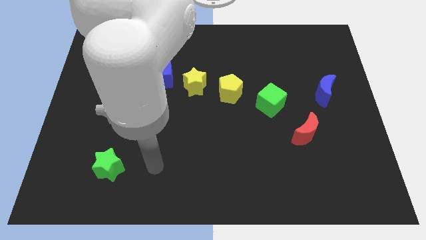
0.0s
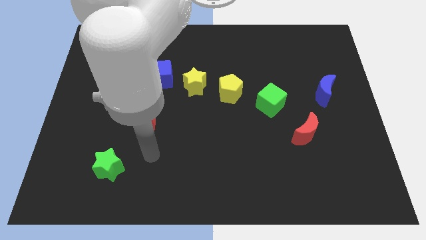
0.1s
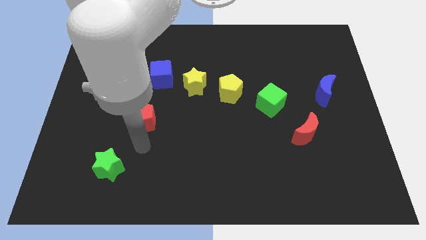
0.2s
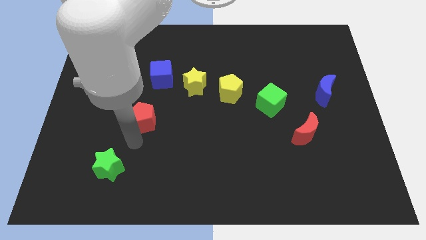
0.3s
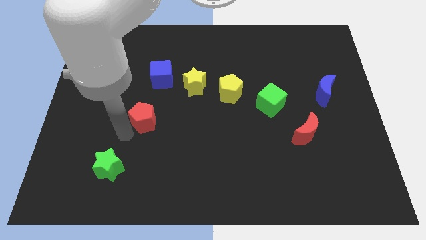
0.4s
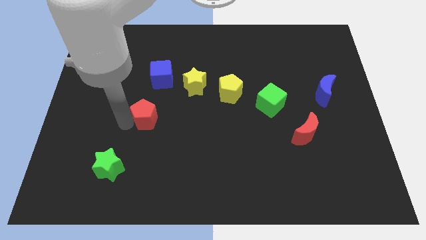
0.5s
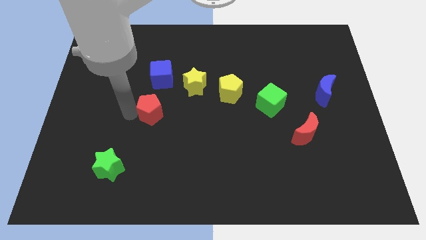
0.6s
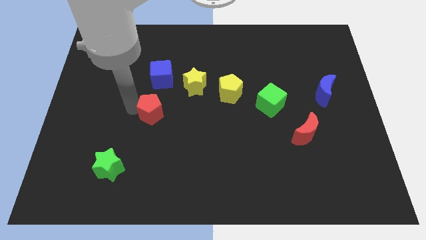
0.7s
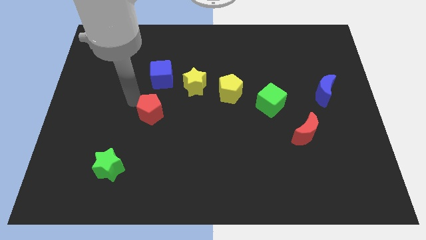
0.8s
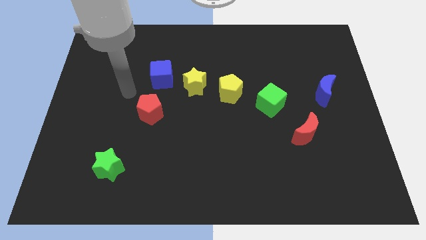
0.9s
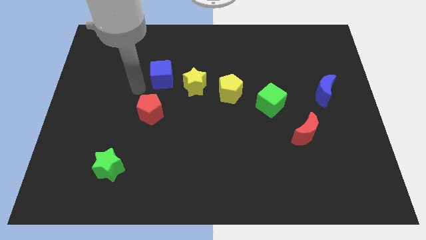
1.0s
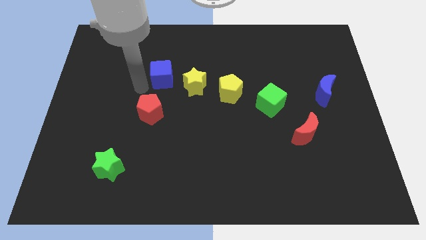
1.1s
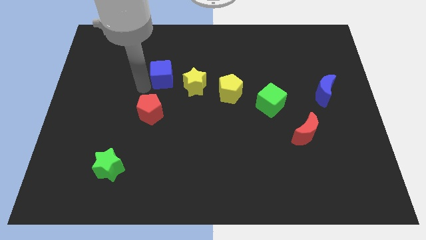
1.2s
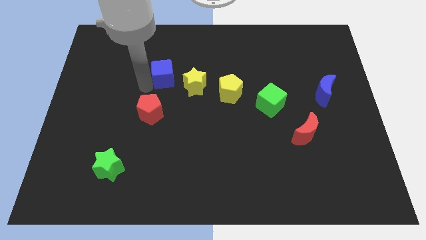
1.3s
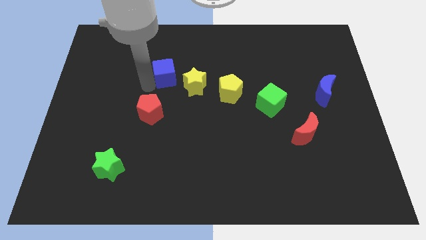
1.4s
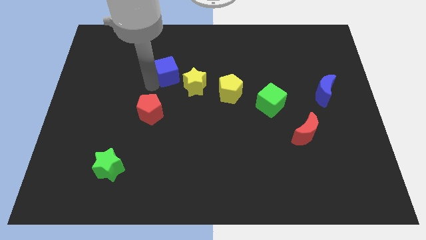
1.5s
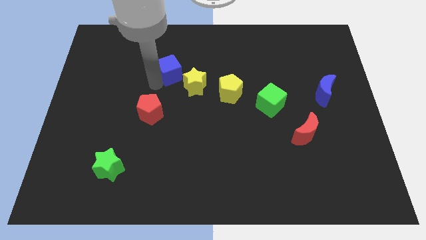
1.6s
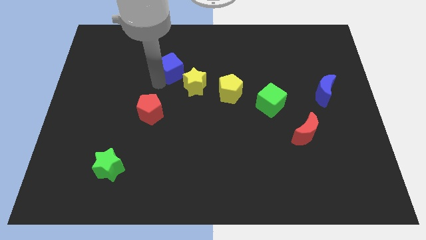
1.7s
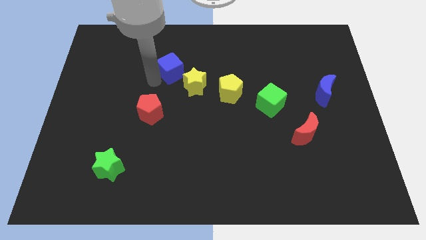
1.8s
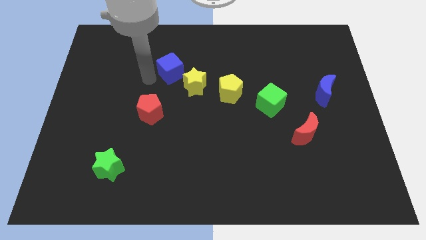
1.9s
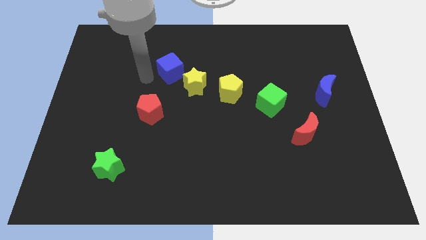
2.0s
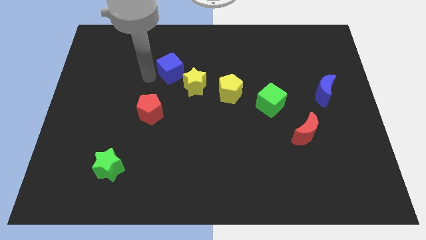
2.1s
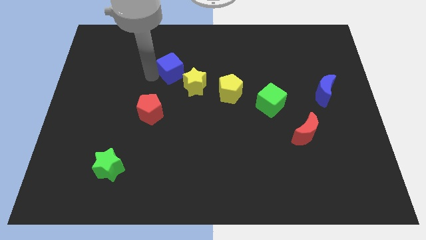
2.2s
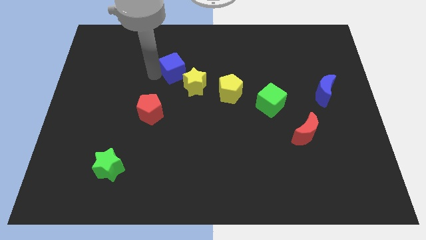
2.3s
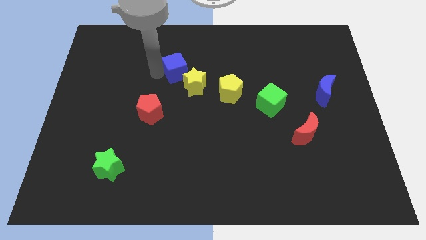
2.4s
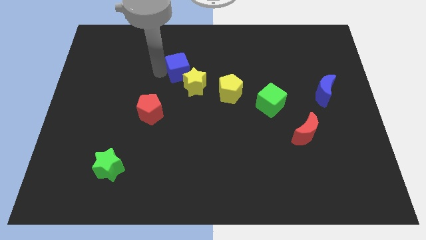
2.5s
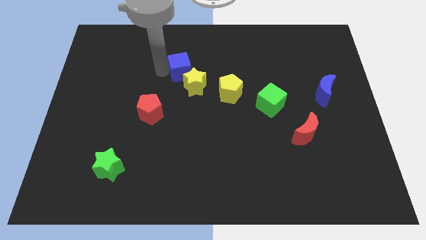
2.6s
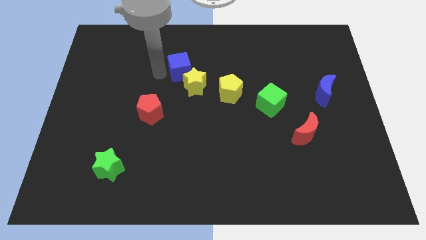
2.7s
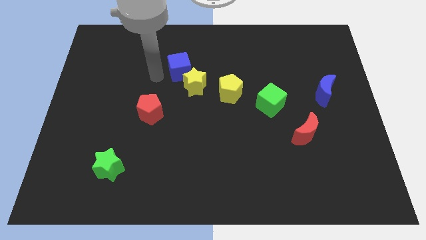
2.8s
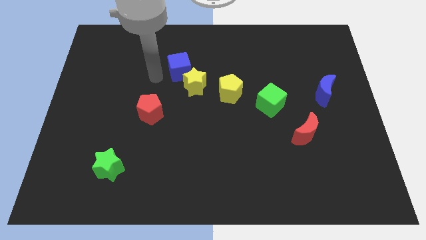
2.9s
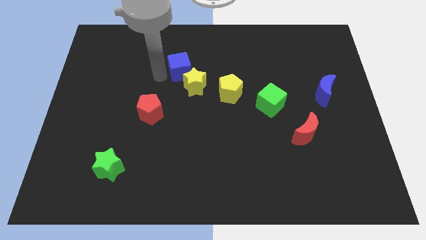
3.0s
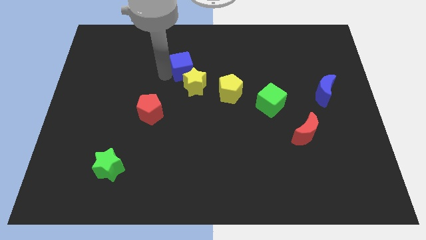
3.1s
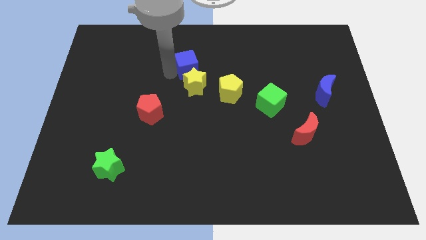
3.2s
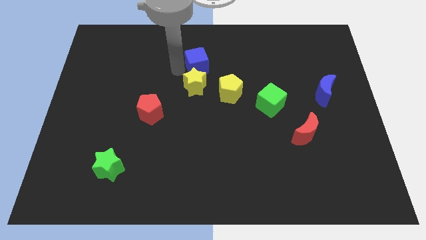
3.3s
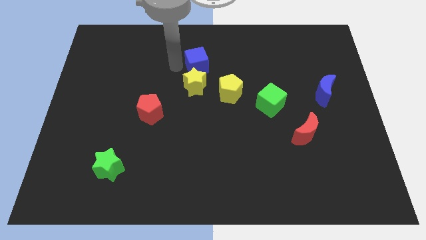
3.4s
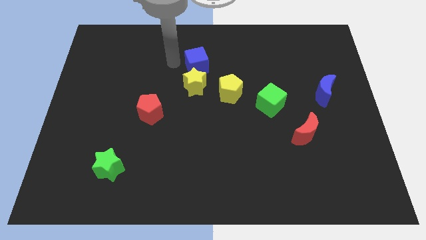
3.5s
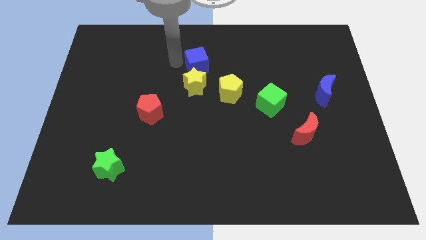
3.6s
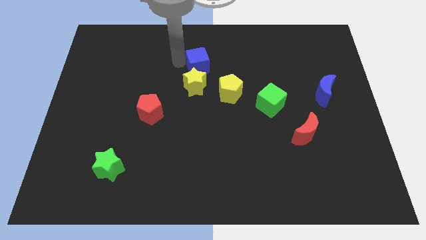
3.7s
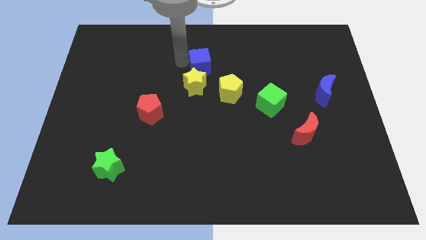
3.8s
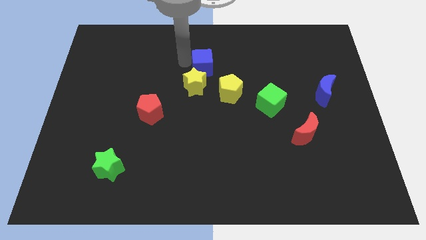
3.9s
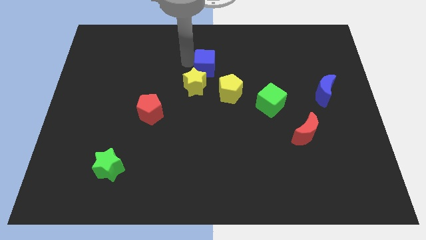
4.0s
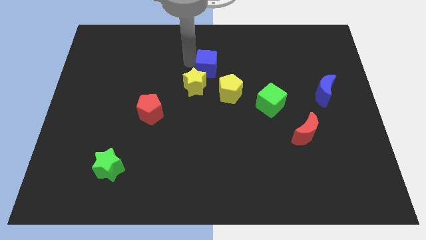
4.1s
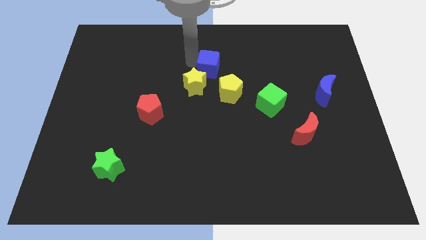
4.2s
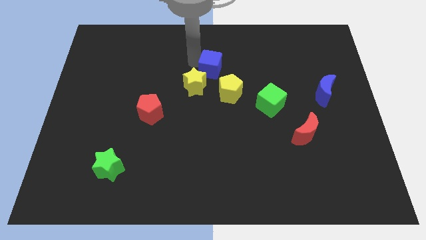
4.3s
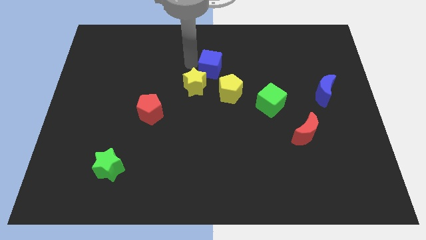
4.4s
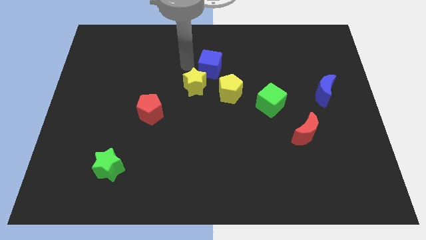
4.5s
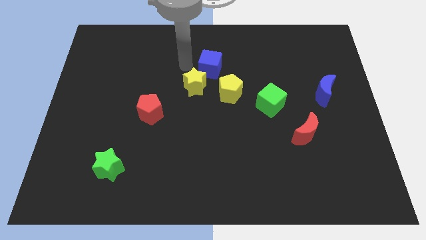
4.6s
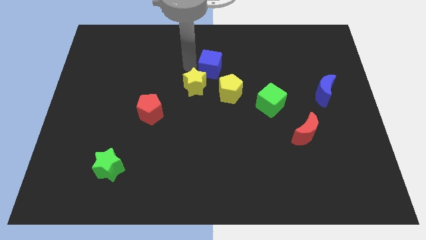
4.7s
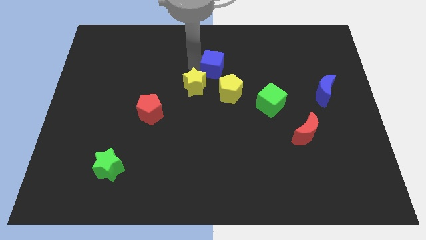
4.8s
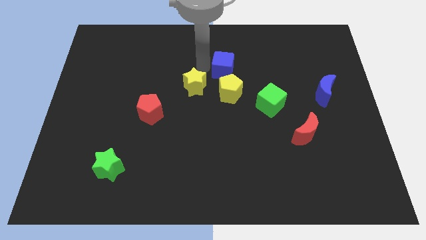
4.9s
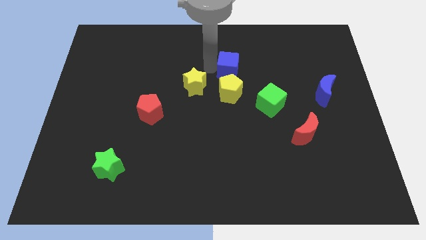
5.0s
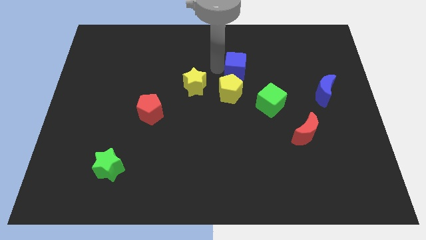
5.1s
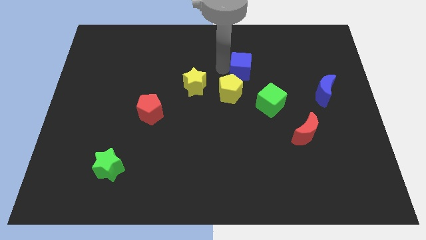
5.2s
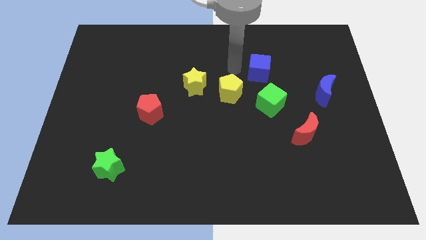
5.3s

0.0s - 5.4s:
push the blue cube right

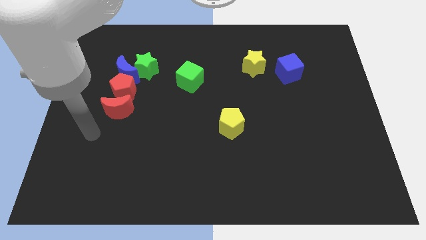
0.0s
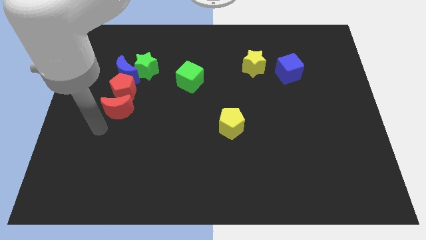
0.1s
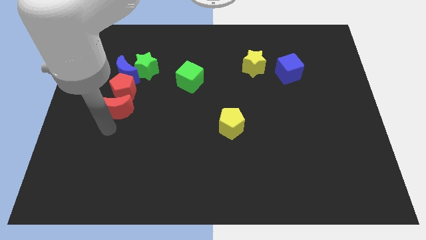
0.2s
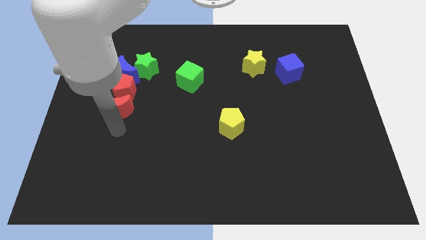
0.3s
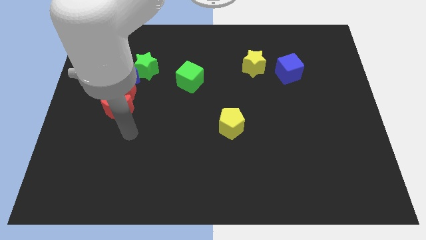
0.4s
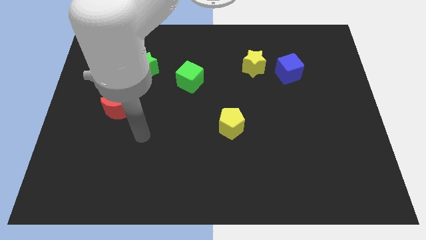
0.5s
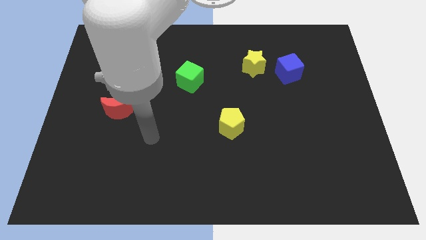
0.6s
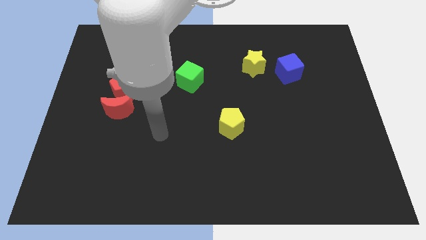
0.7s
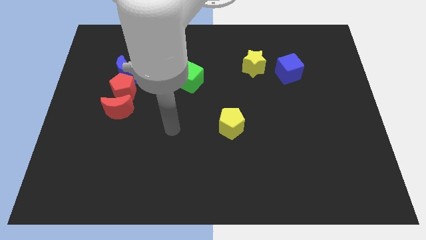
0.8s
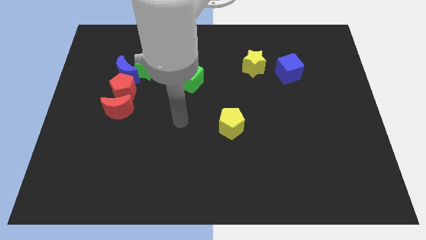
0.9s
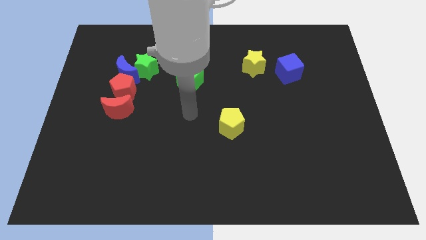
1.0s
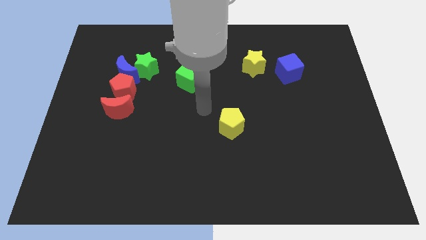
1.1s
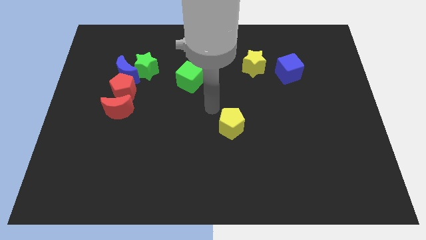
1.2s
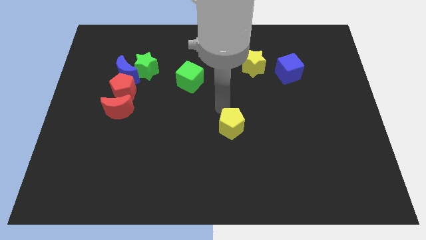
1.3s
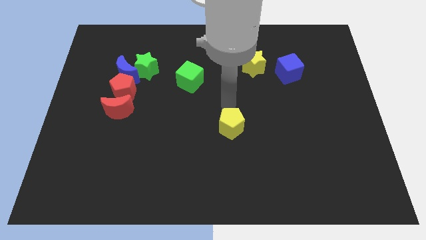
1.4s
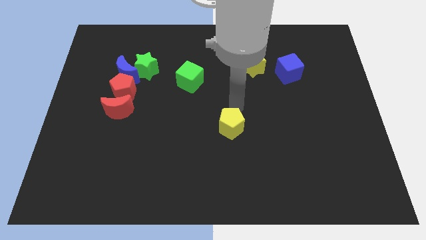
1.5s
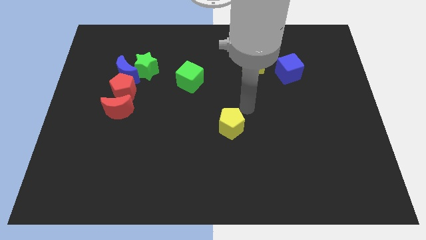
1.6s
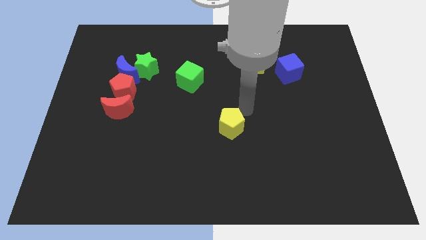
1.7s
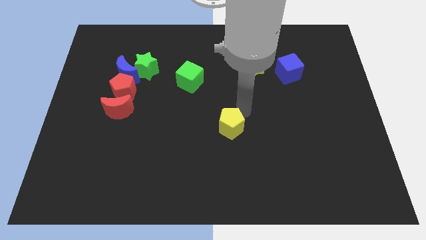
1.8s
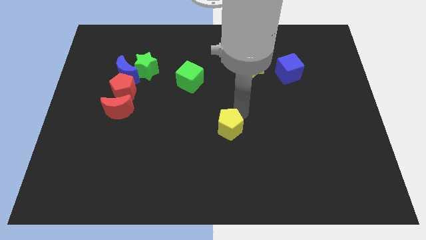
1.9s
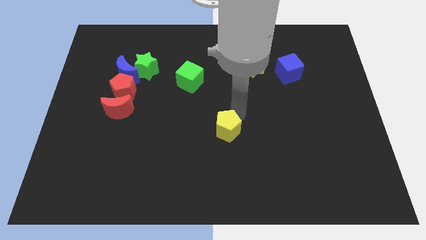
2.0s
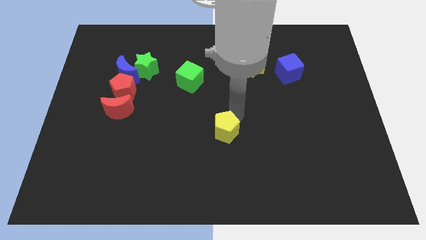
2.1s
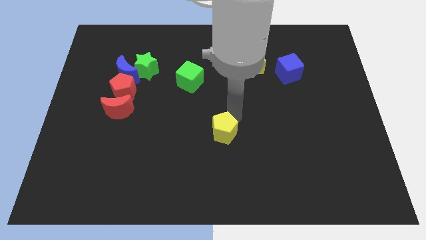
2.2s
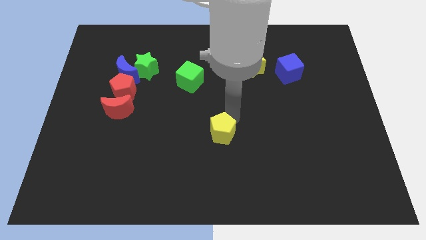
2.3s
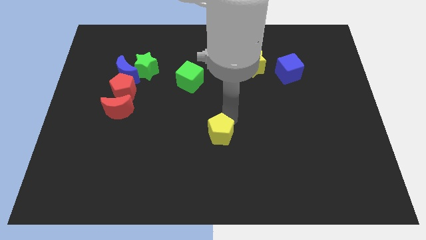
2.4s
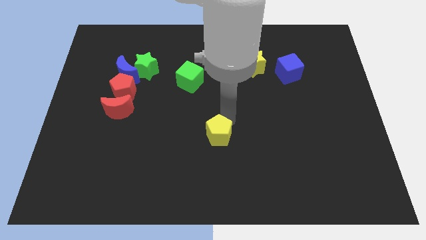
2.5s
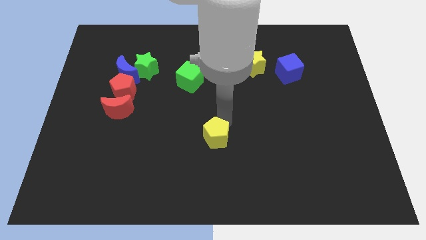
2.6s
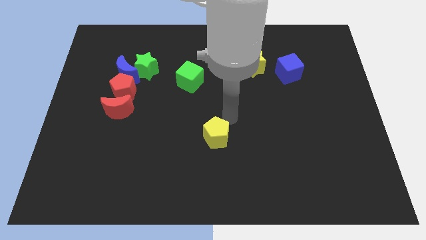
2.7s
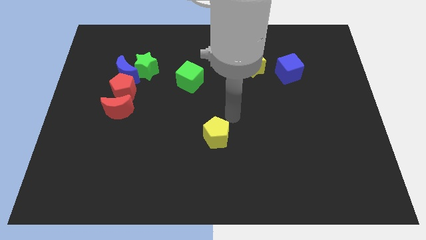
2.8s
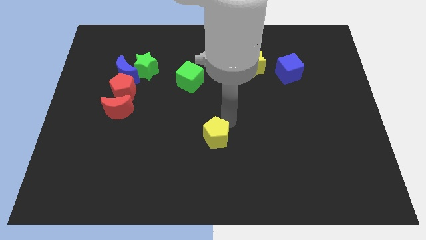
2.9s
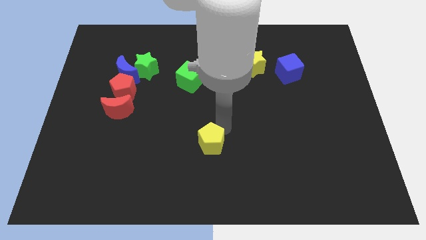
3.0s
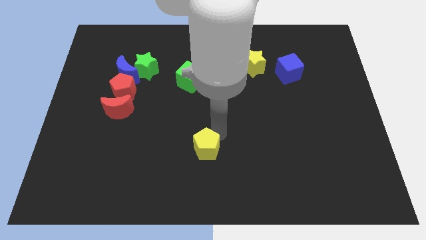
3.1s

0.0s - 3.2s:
slightly slide the yellow pentagon downwards and left diagonally

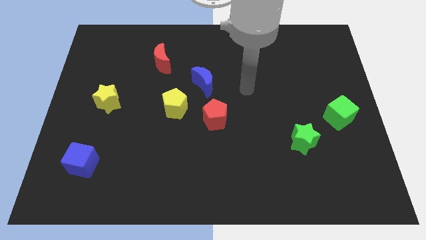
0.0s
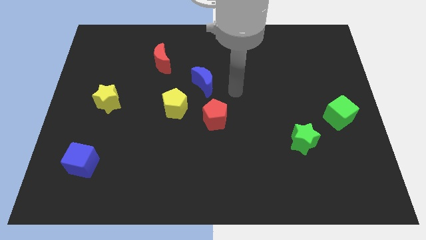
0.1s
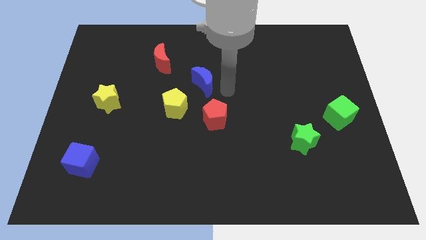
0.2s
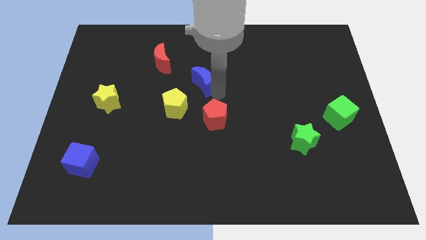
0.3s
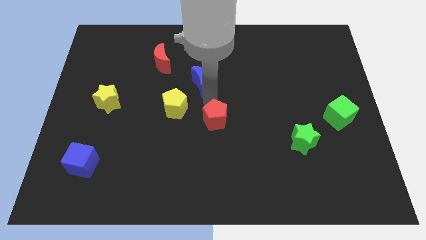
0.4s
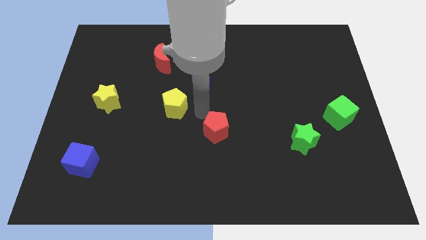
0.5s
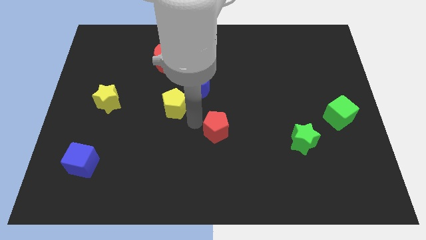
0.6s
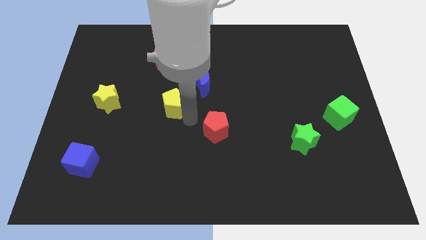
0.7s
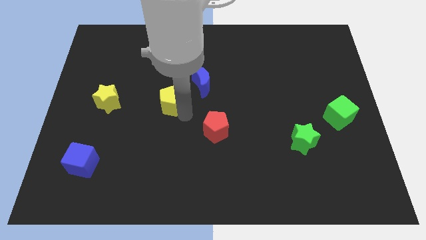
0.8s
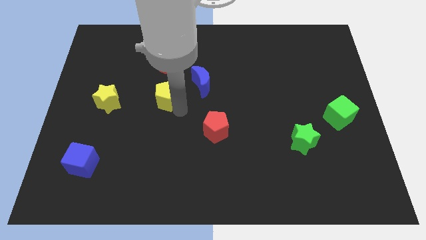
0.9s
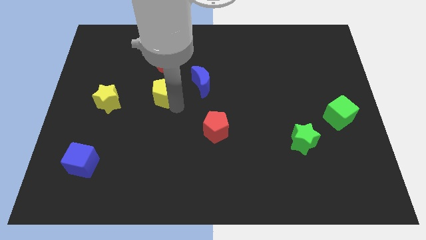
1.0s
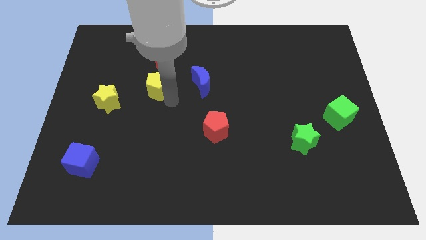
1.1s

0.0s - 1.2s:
move the yellow pentagon up and then left slightly
